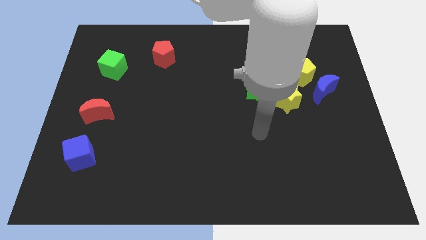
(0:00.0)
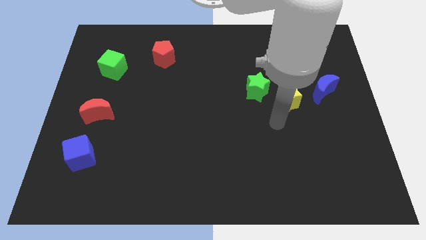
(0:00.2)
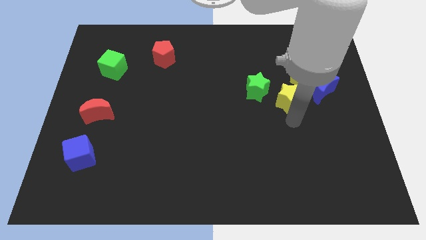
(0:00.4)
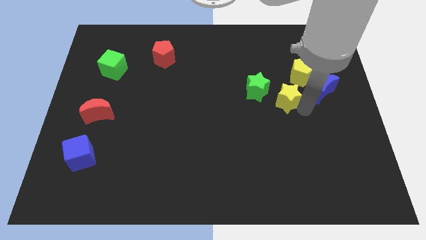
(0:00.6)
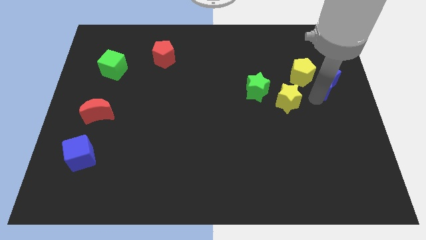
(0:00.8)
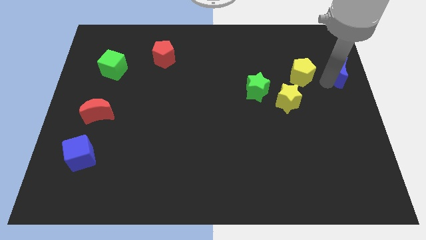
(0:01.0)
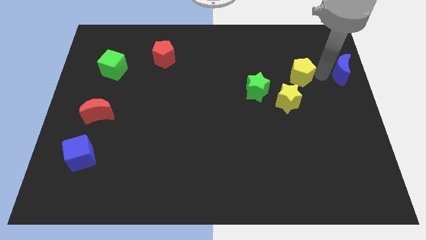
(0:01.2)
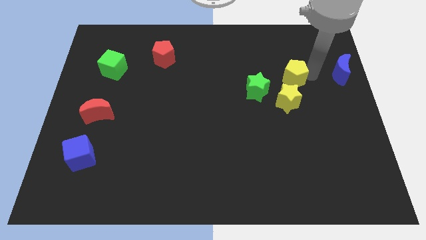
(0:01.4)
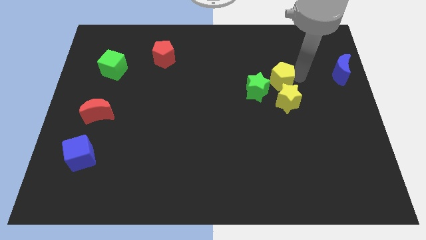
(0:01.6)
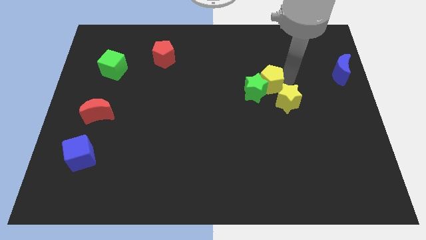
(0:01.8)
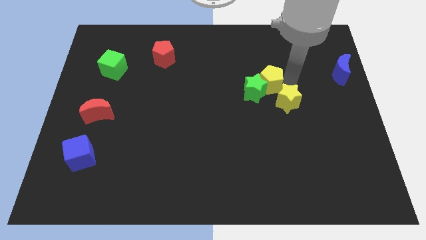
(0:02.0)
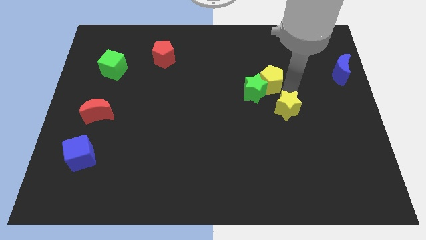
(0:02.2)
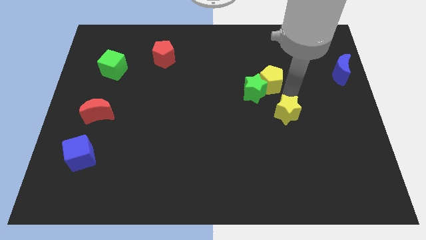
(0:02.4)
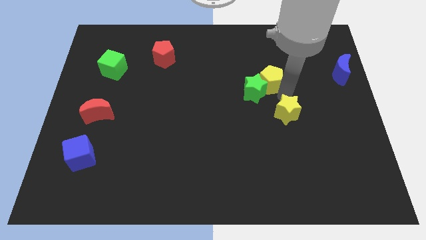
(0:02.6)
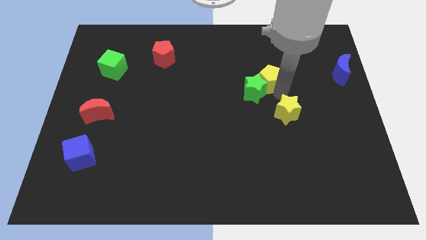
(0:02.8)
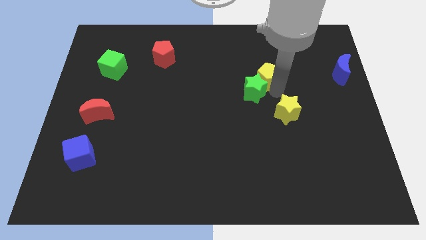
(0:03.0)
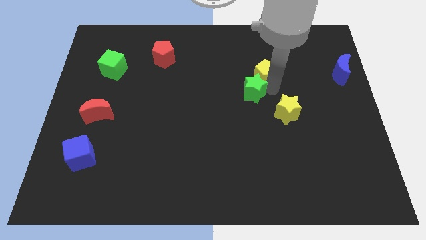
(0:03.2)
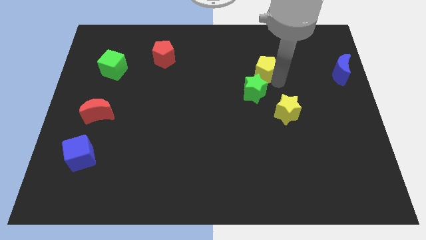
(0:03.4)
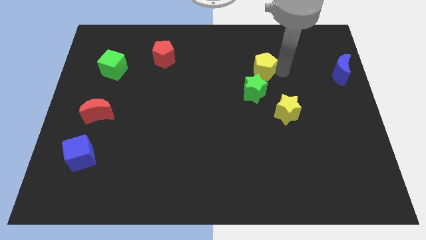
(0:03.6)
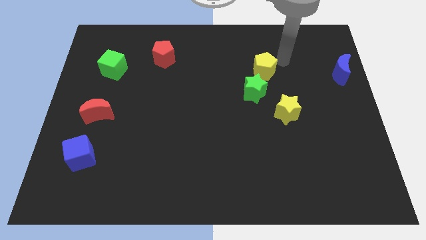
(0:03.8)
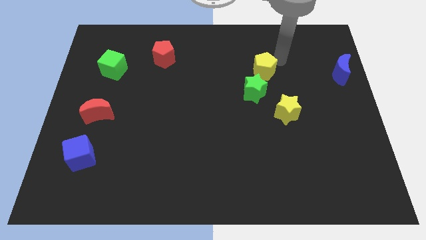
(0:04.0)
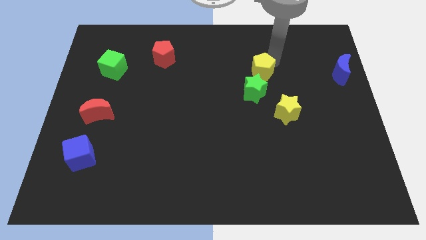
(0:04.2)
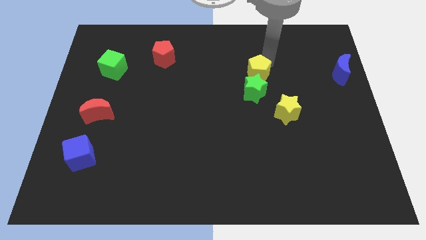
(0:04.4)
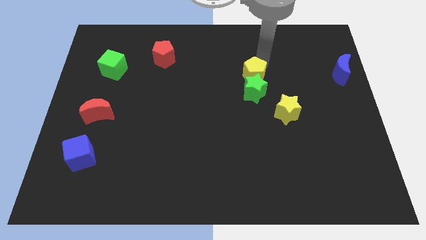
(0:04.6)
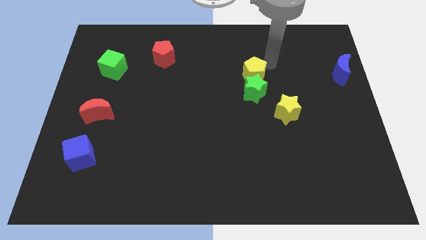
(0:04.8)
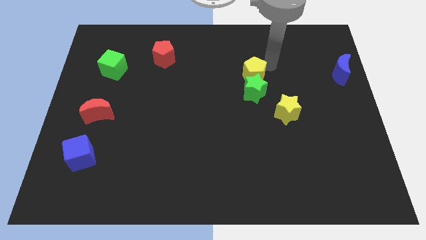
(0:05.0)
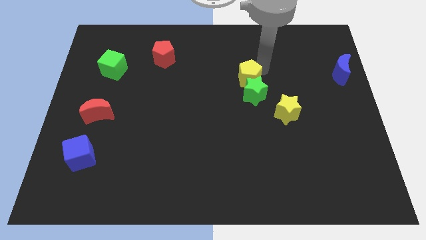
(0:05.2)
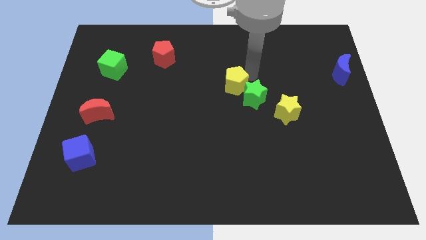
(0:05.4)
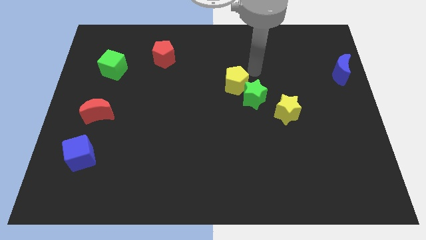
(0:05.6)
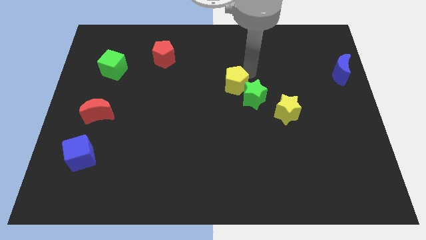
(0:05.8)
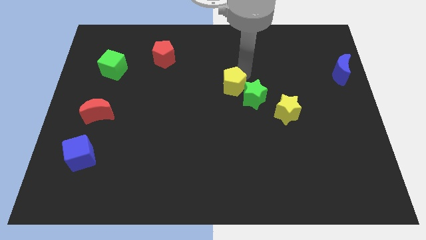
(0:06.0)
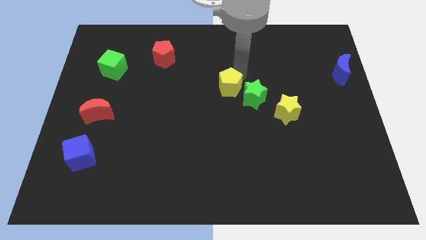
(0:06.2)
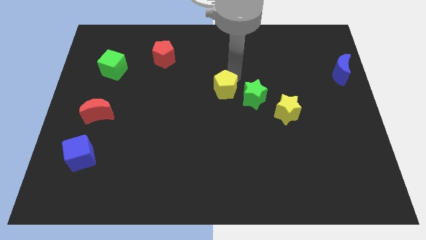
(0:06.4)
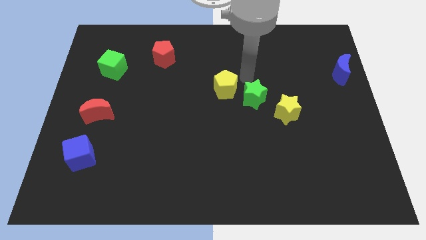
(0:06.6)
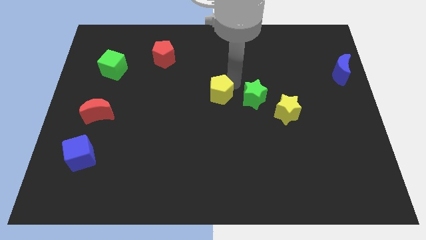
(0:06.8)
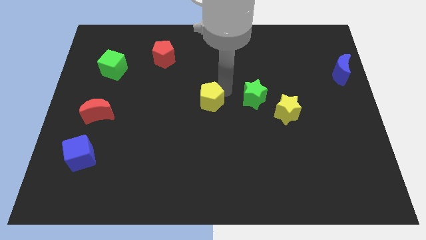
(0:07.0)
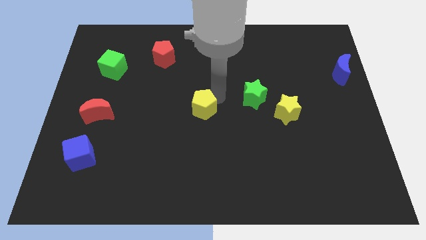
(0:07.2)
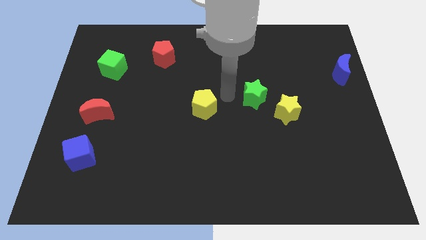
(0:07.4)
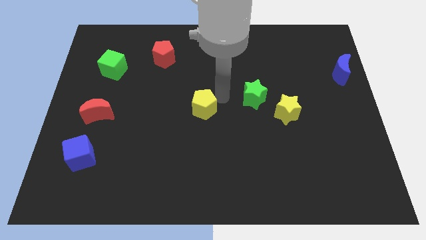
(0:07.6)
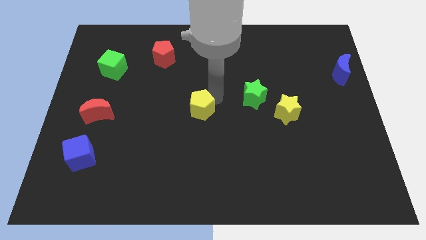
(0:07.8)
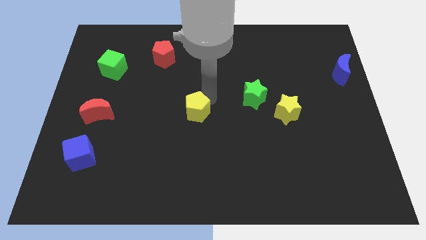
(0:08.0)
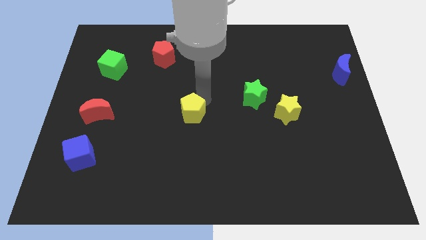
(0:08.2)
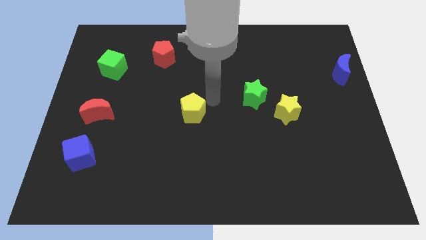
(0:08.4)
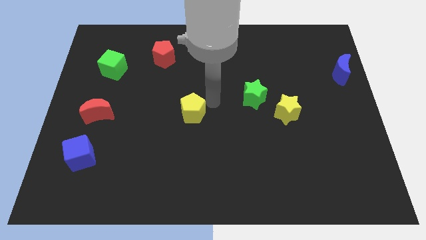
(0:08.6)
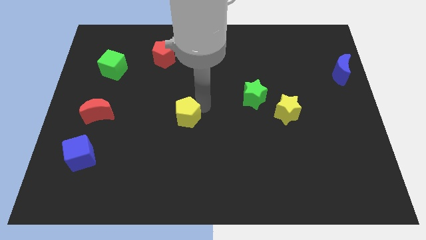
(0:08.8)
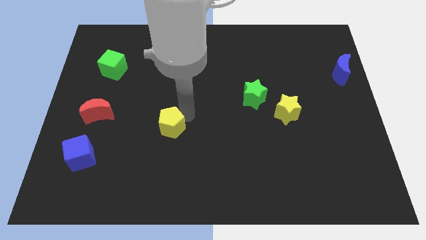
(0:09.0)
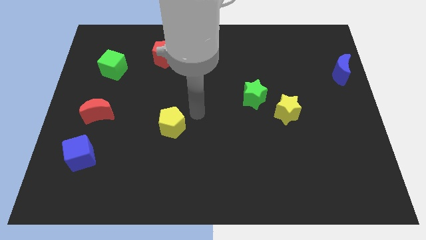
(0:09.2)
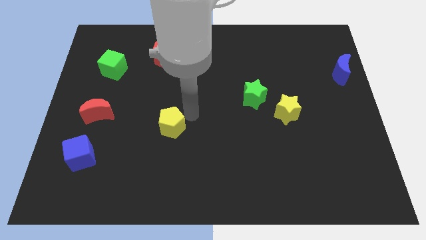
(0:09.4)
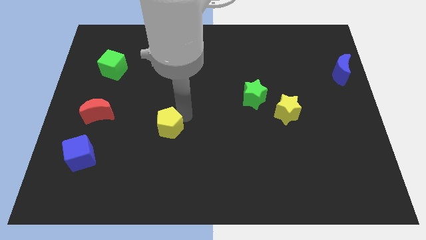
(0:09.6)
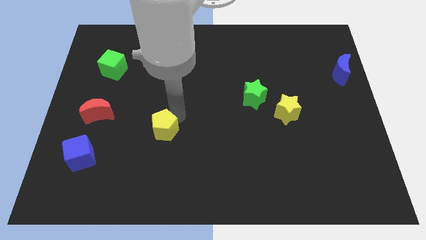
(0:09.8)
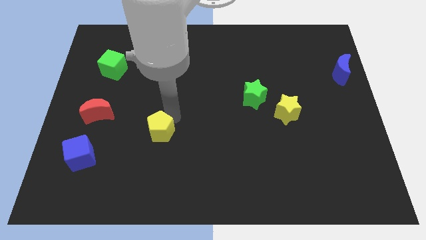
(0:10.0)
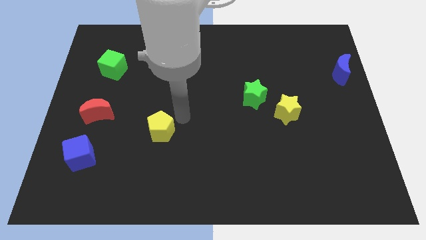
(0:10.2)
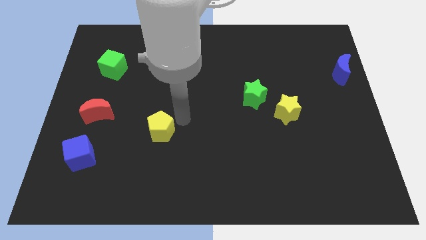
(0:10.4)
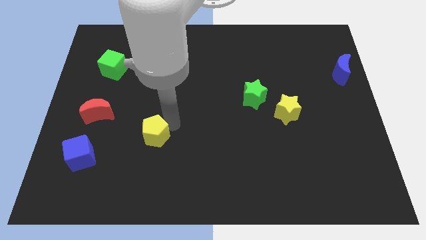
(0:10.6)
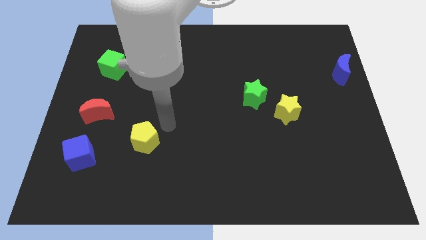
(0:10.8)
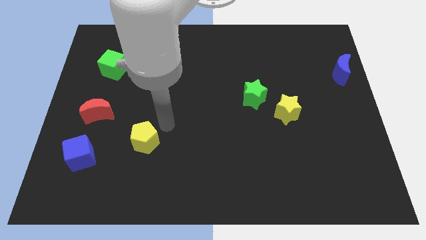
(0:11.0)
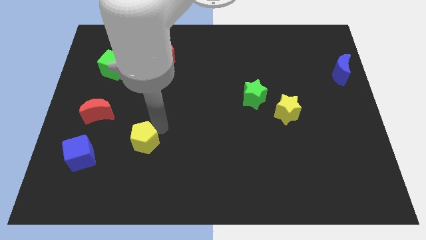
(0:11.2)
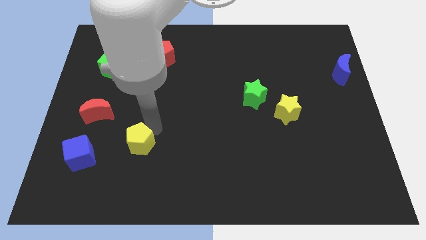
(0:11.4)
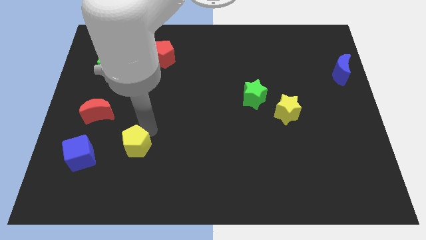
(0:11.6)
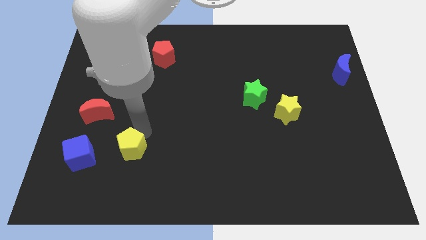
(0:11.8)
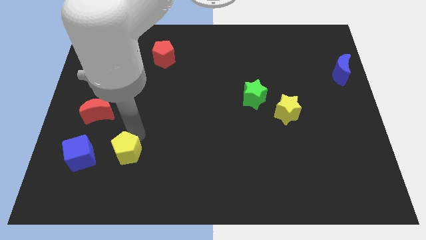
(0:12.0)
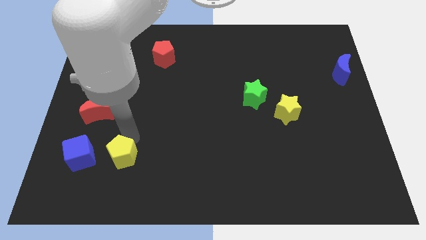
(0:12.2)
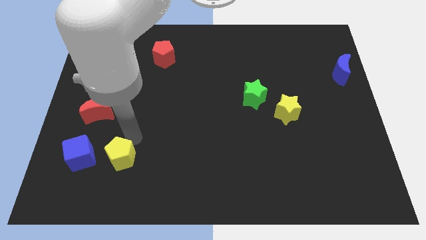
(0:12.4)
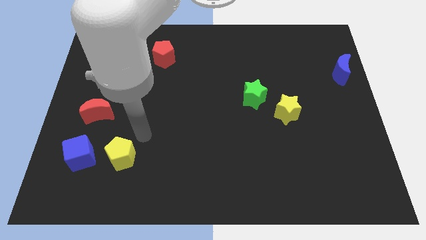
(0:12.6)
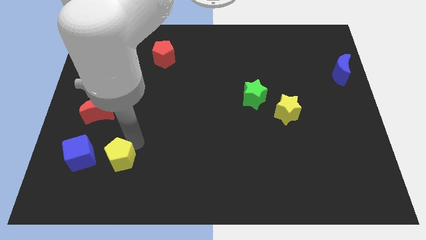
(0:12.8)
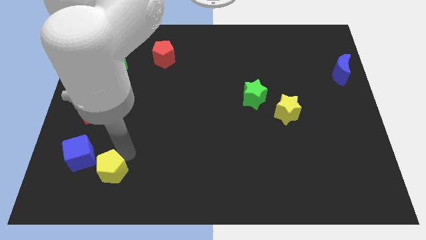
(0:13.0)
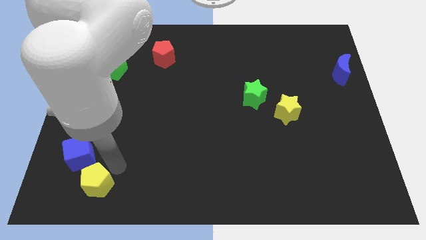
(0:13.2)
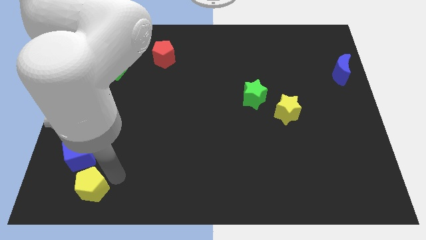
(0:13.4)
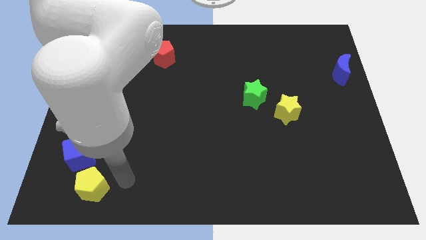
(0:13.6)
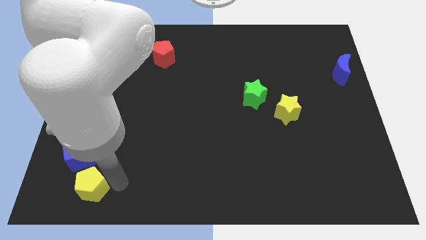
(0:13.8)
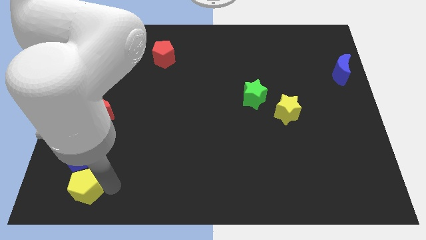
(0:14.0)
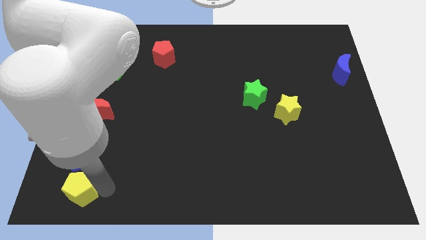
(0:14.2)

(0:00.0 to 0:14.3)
put the yellow pentagon to the bottom left
